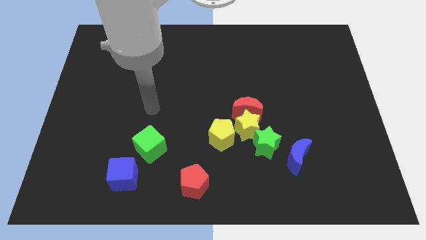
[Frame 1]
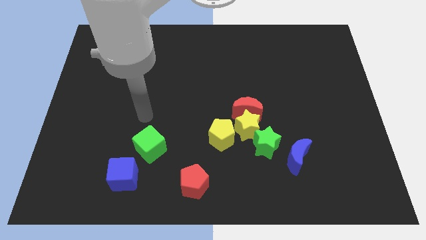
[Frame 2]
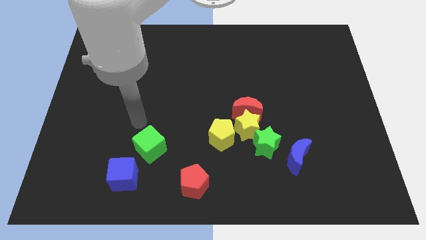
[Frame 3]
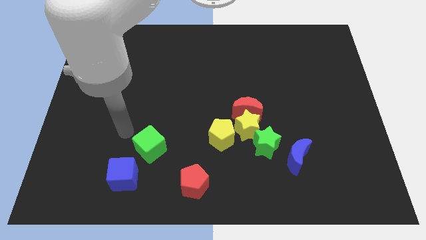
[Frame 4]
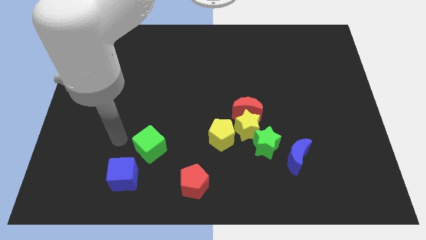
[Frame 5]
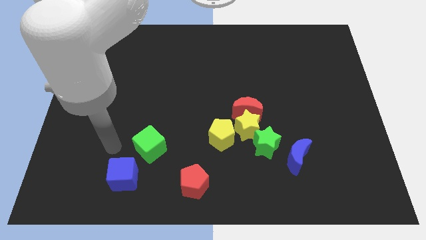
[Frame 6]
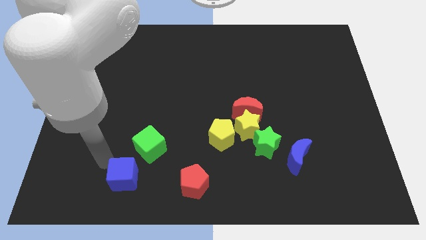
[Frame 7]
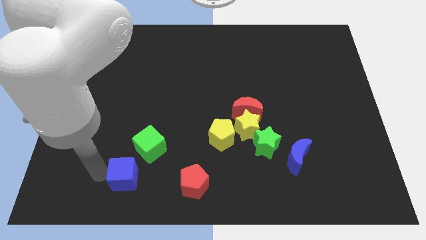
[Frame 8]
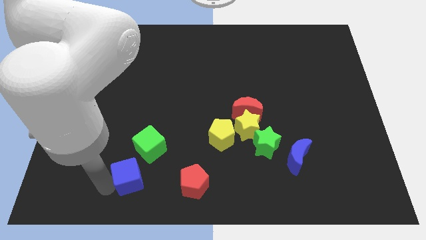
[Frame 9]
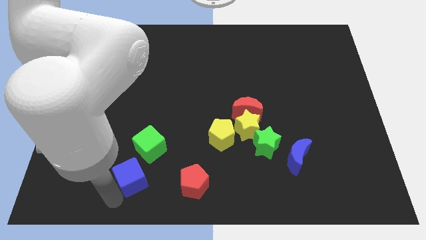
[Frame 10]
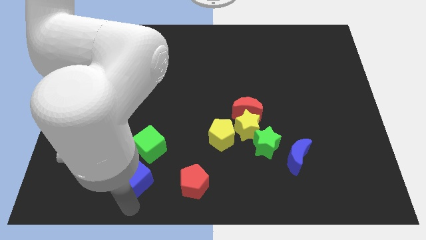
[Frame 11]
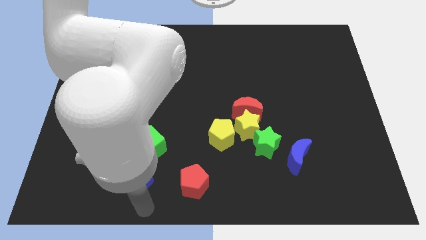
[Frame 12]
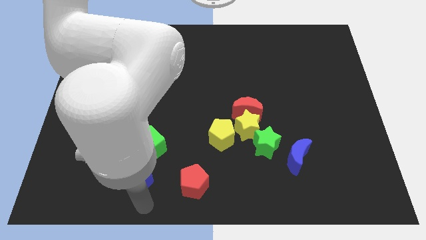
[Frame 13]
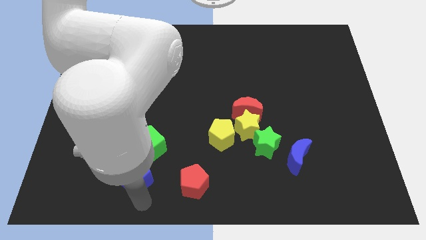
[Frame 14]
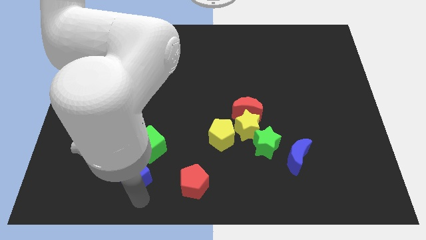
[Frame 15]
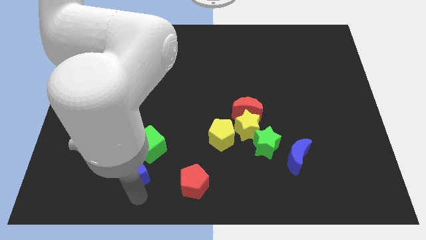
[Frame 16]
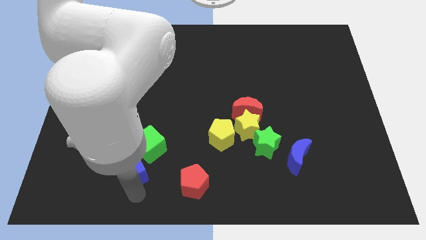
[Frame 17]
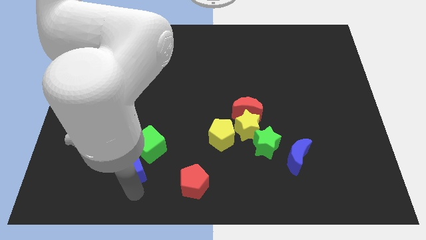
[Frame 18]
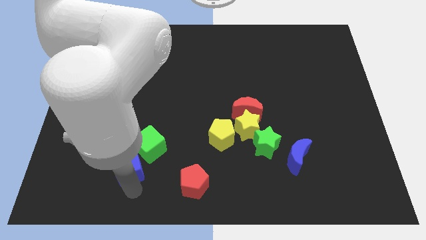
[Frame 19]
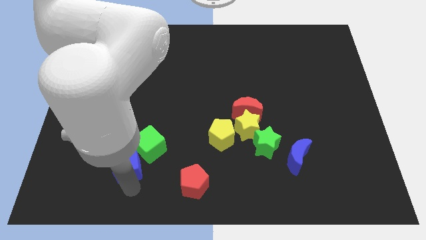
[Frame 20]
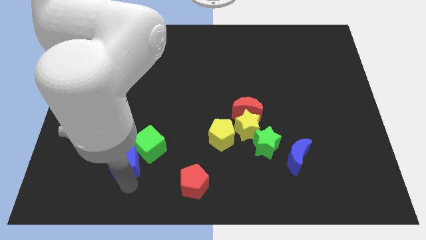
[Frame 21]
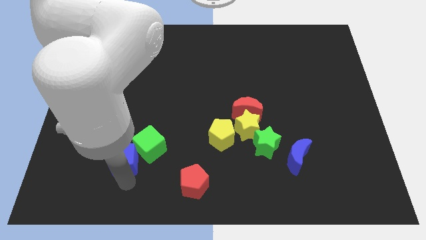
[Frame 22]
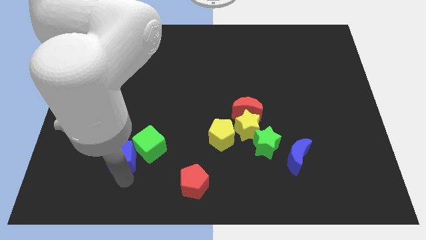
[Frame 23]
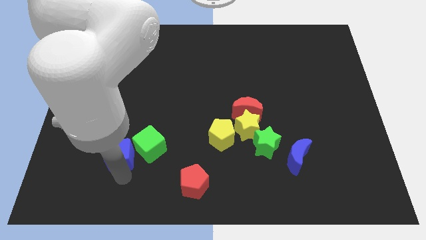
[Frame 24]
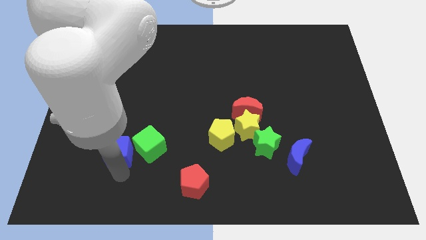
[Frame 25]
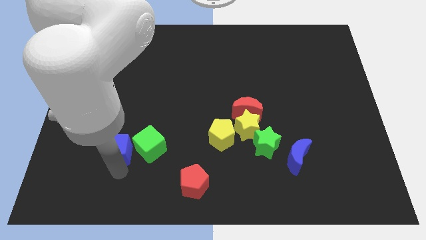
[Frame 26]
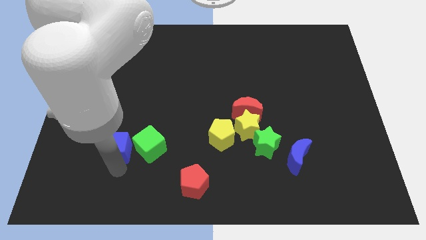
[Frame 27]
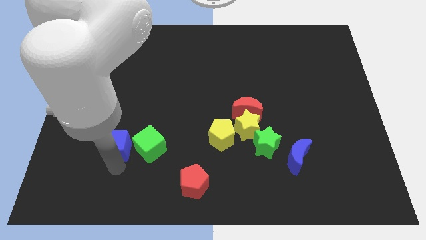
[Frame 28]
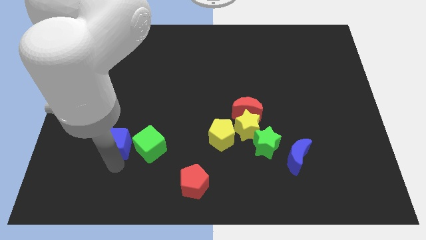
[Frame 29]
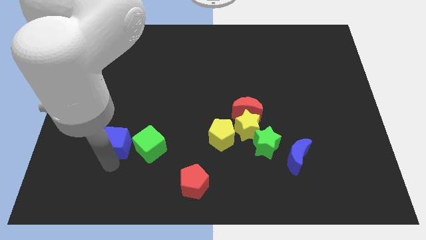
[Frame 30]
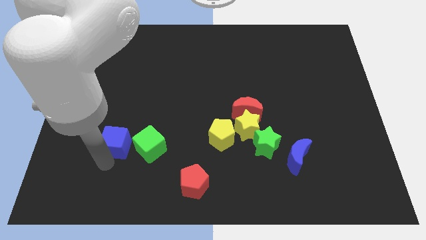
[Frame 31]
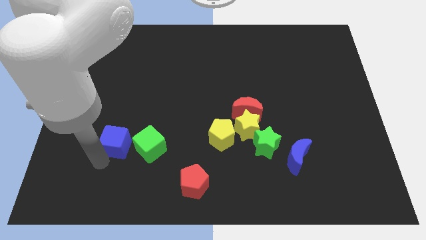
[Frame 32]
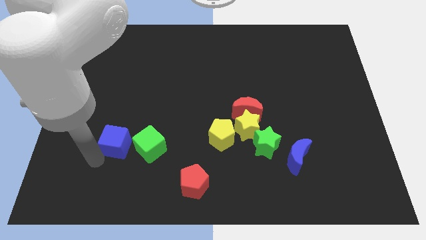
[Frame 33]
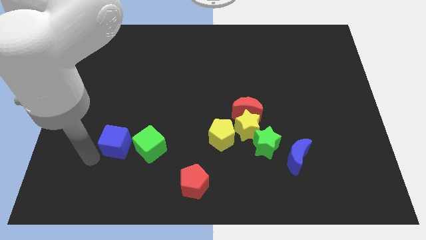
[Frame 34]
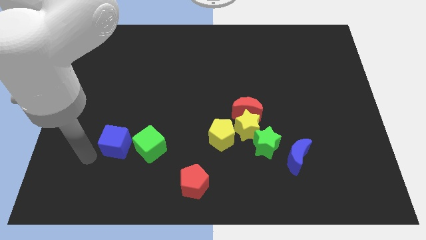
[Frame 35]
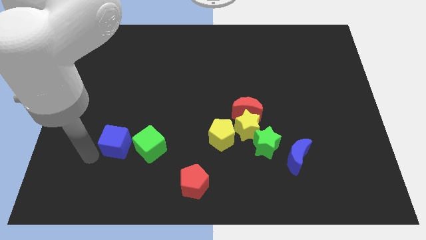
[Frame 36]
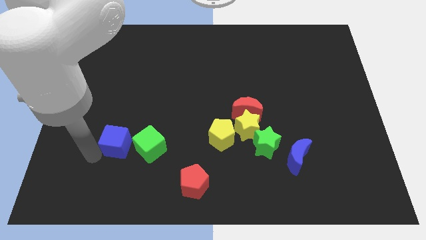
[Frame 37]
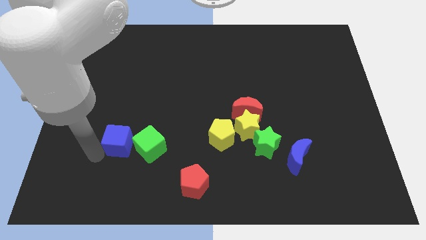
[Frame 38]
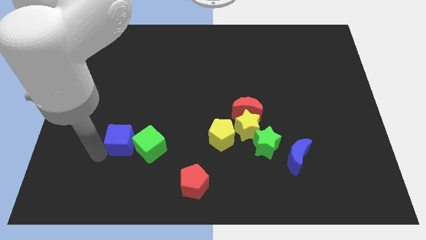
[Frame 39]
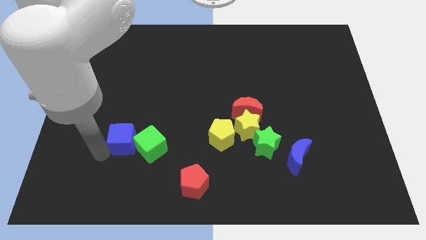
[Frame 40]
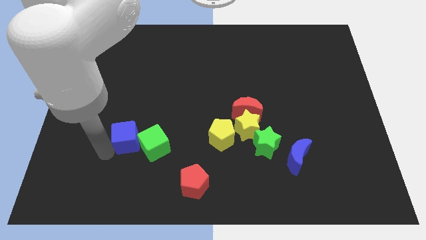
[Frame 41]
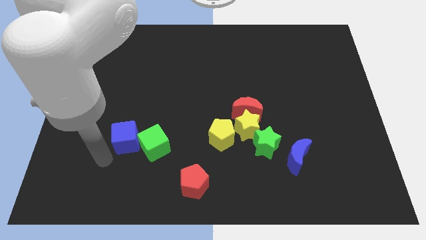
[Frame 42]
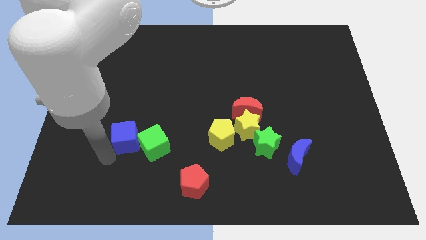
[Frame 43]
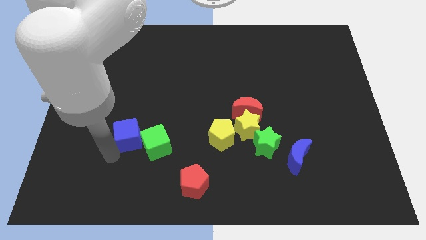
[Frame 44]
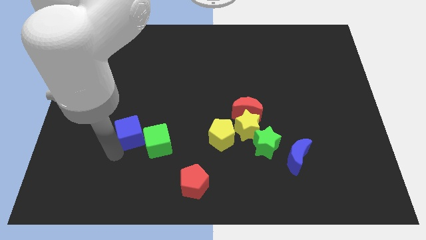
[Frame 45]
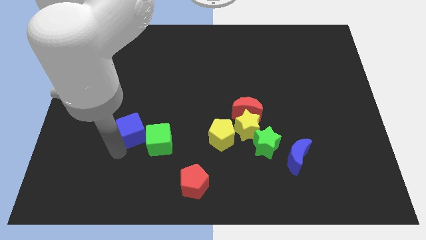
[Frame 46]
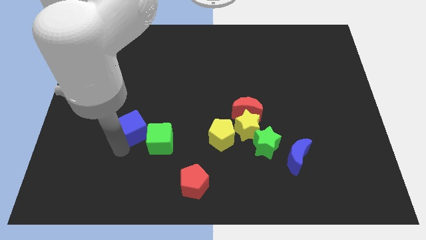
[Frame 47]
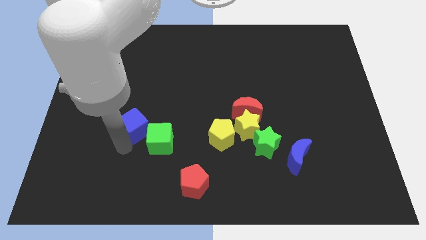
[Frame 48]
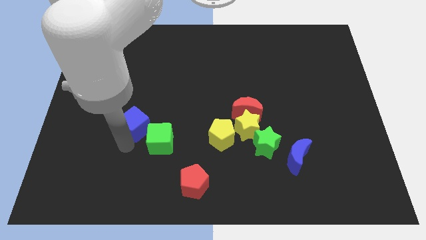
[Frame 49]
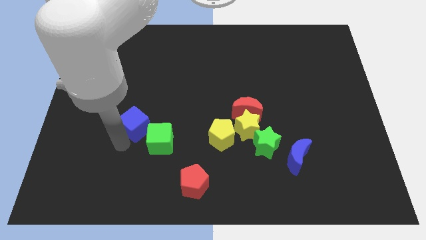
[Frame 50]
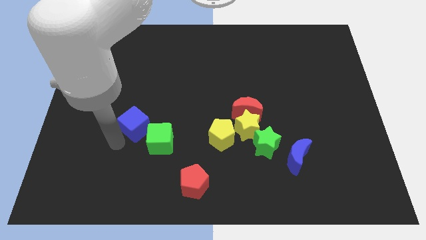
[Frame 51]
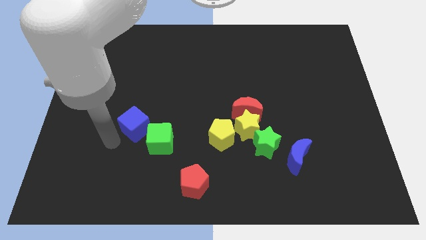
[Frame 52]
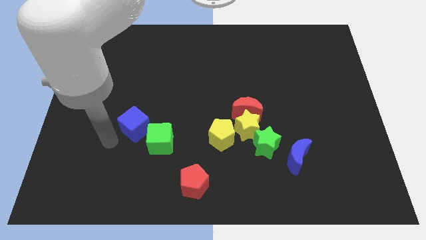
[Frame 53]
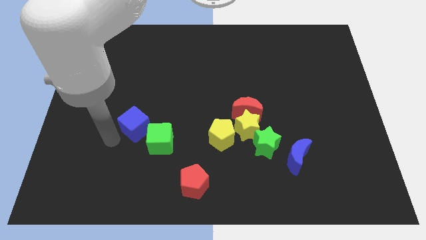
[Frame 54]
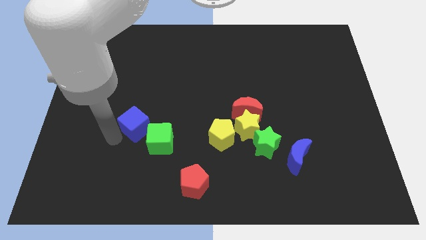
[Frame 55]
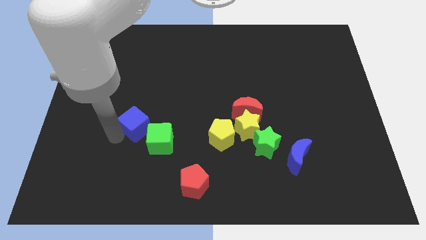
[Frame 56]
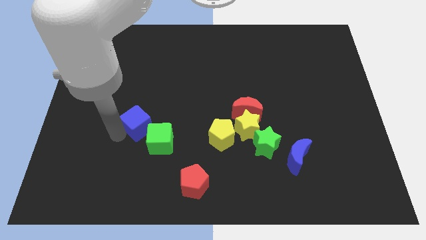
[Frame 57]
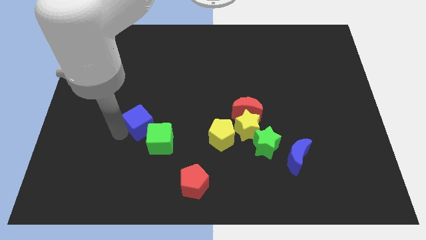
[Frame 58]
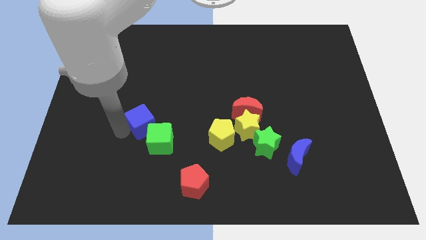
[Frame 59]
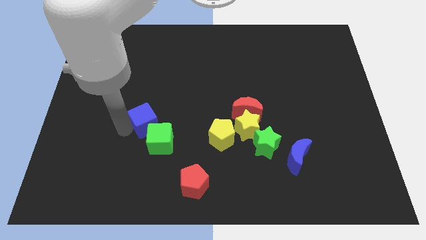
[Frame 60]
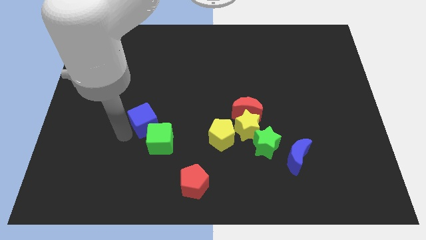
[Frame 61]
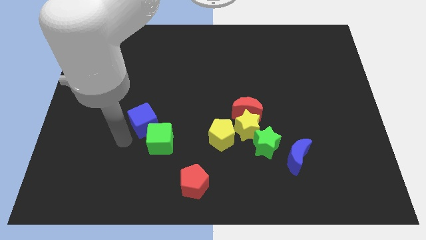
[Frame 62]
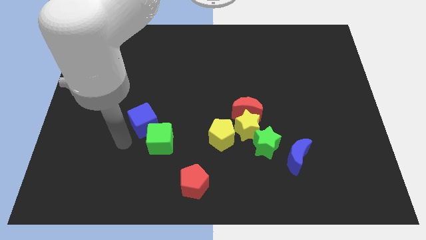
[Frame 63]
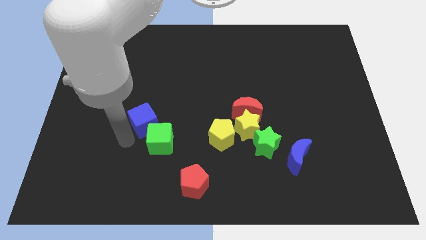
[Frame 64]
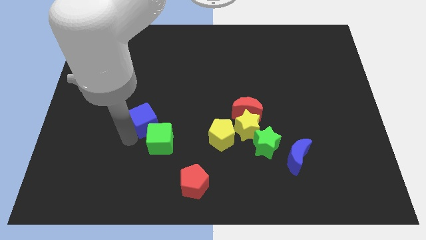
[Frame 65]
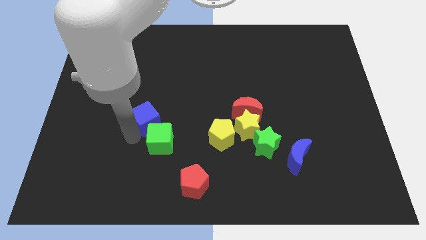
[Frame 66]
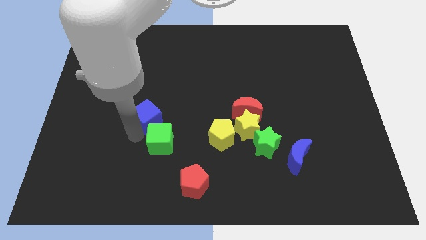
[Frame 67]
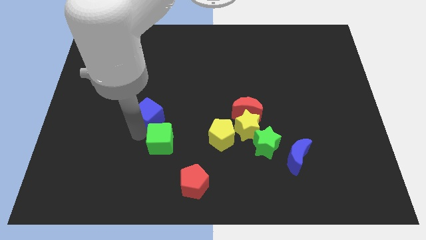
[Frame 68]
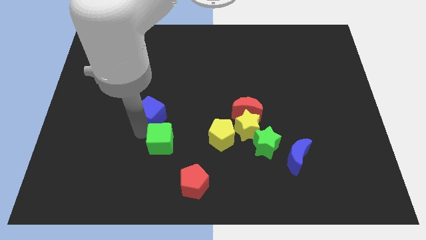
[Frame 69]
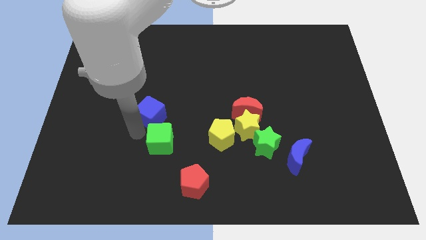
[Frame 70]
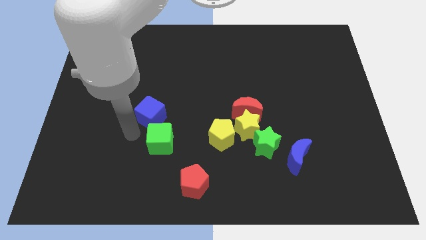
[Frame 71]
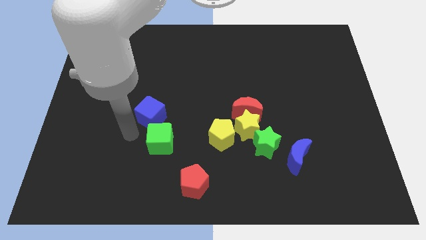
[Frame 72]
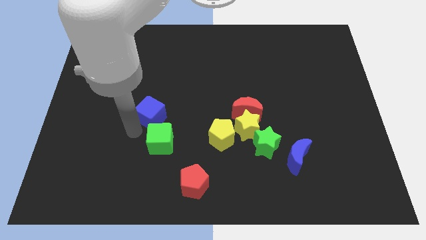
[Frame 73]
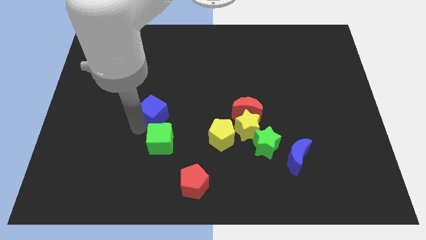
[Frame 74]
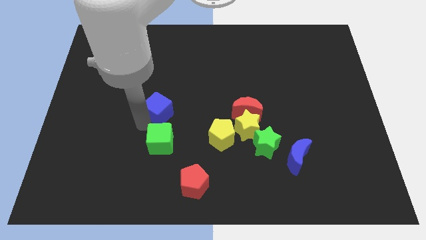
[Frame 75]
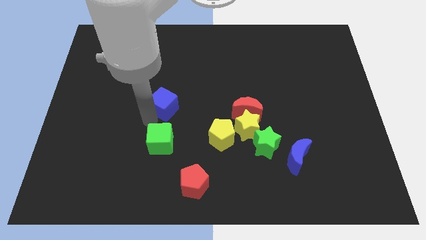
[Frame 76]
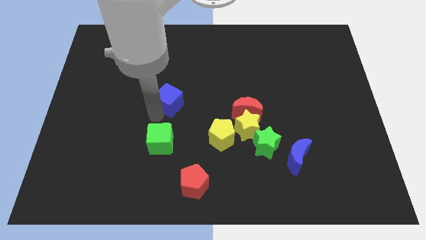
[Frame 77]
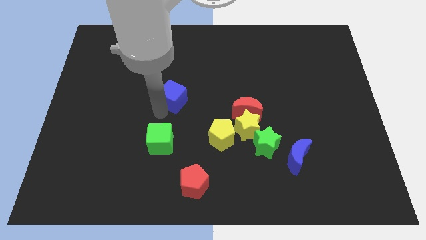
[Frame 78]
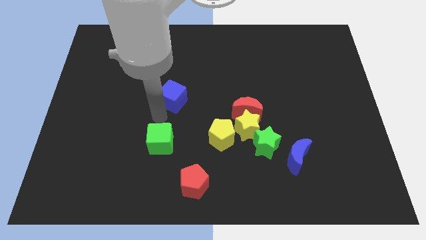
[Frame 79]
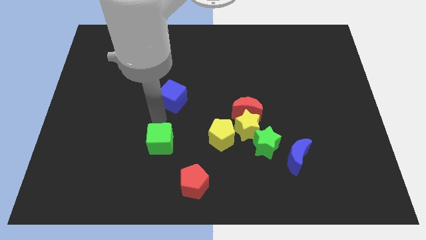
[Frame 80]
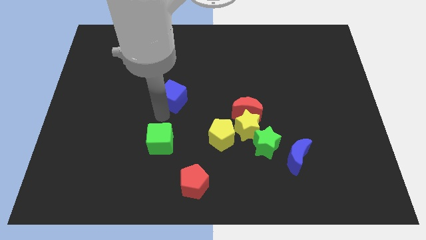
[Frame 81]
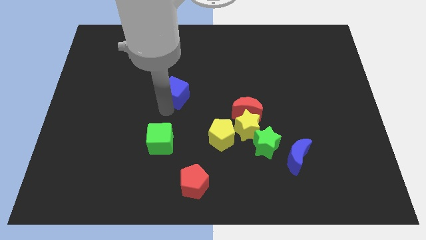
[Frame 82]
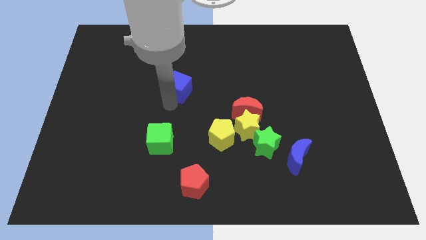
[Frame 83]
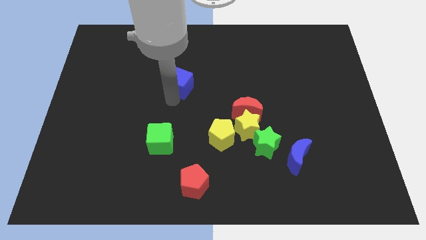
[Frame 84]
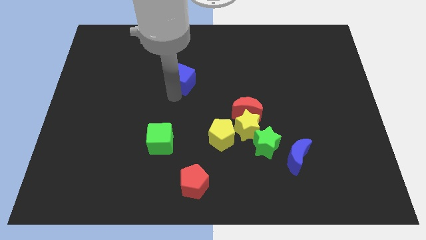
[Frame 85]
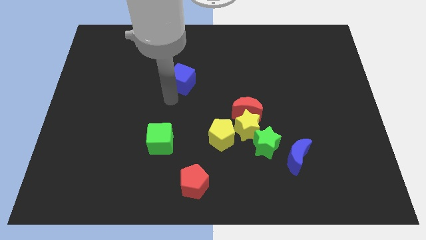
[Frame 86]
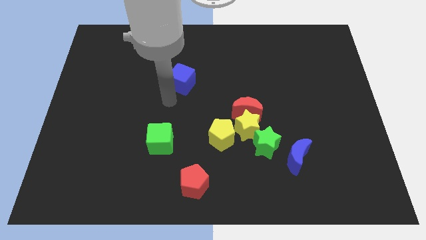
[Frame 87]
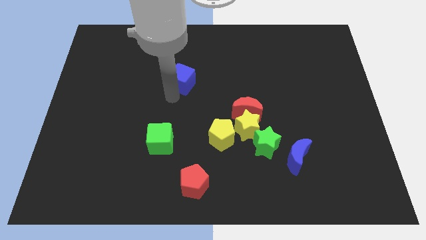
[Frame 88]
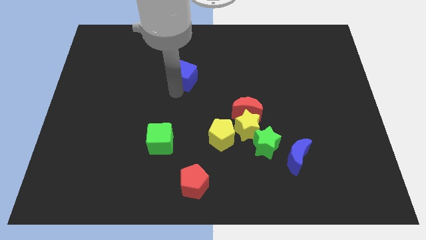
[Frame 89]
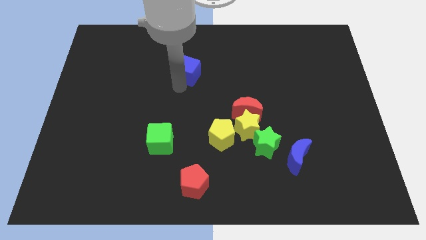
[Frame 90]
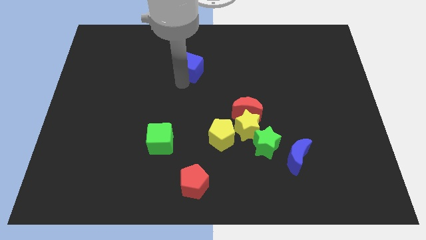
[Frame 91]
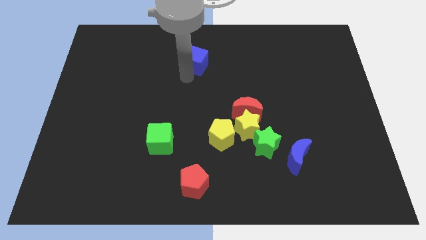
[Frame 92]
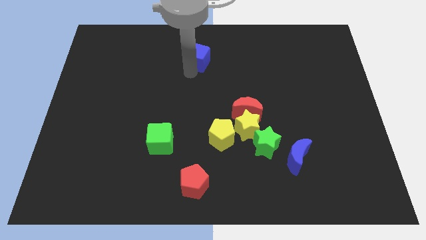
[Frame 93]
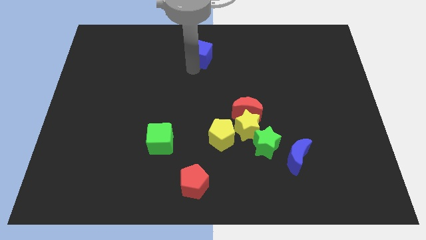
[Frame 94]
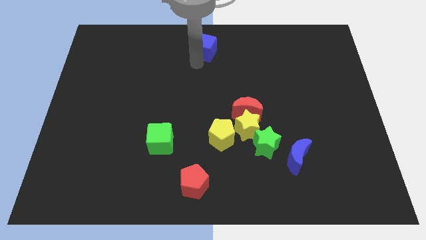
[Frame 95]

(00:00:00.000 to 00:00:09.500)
put the blue cube to the top side
